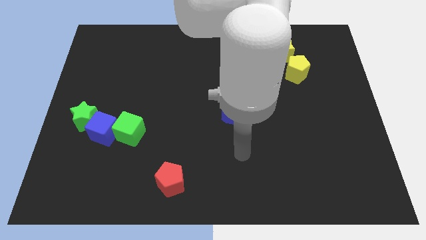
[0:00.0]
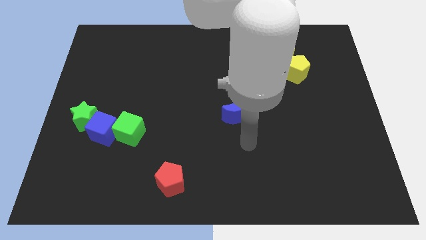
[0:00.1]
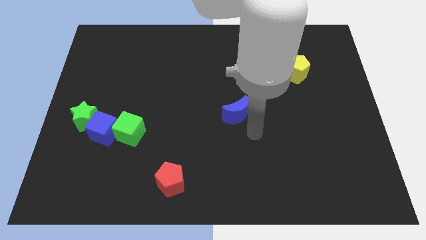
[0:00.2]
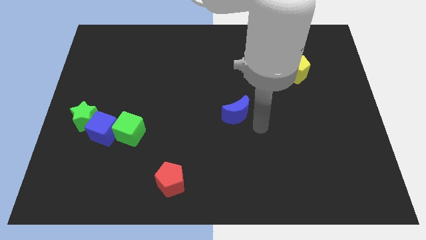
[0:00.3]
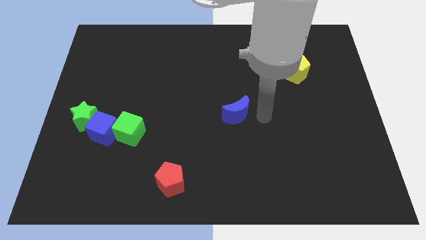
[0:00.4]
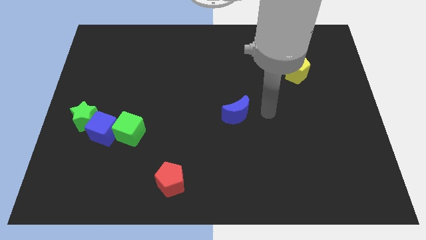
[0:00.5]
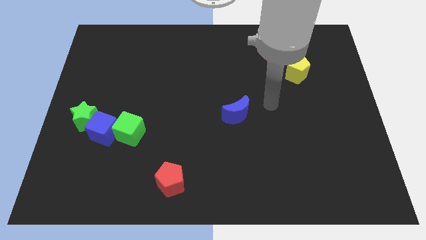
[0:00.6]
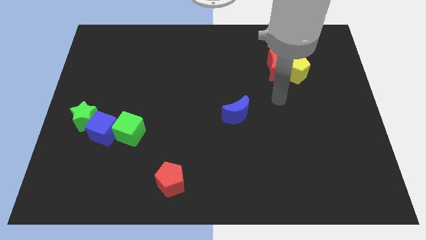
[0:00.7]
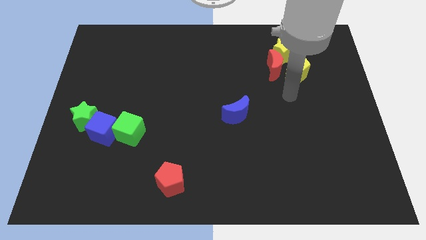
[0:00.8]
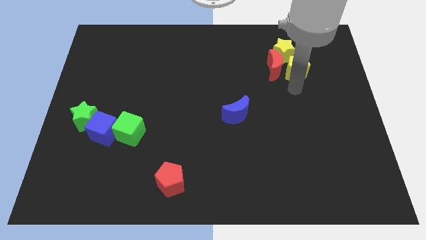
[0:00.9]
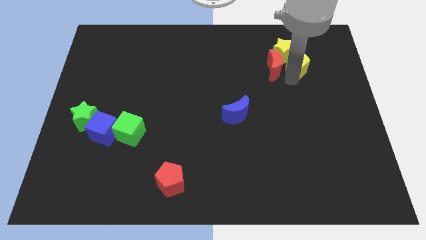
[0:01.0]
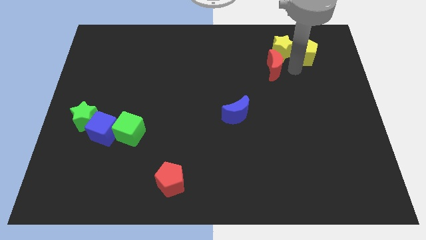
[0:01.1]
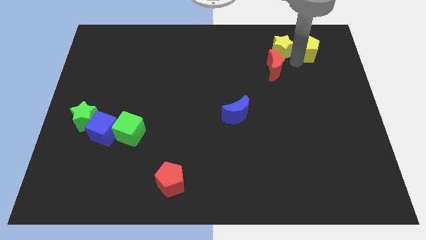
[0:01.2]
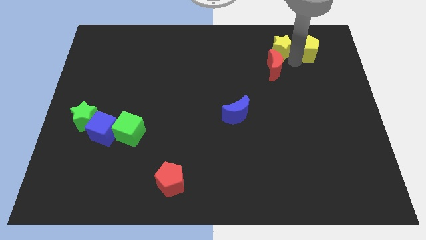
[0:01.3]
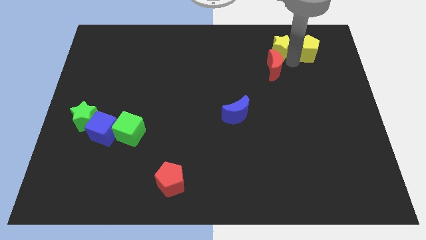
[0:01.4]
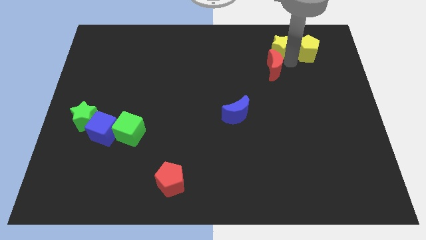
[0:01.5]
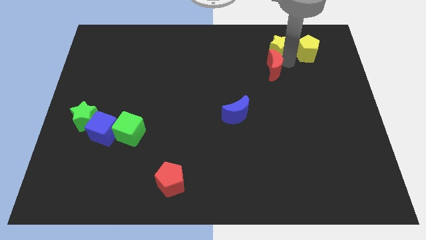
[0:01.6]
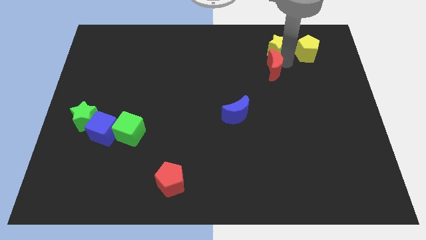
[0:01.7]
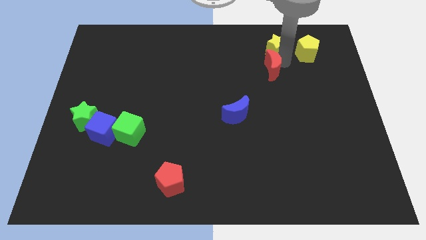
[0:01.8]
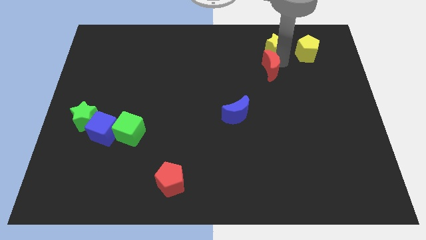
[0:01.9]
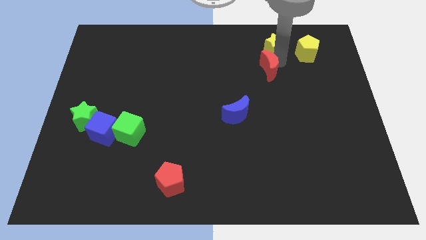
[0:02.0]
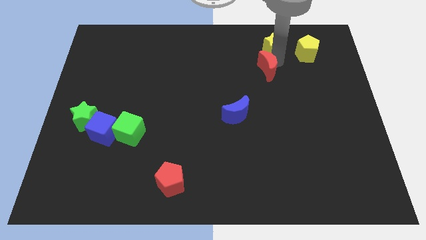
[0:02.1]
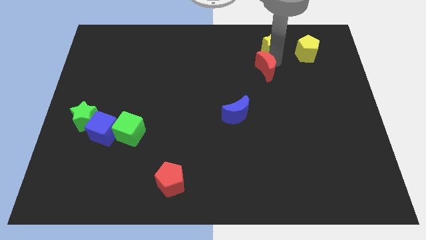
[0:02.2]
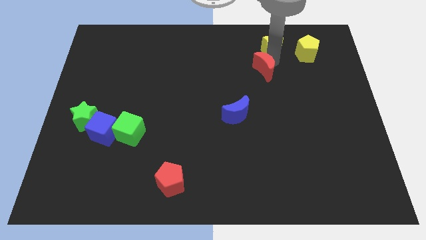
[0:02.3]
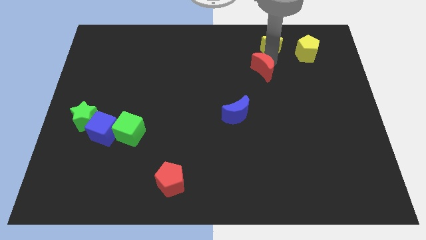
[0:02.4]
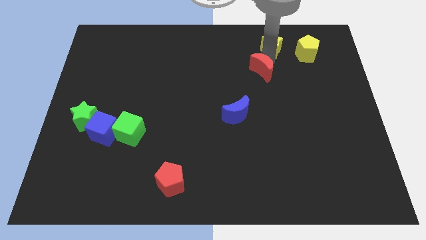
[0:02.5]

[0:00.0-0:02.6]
pull the red moon apart from the yellow pentagon and yellow star

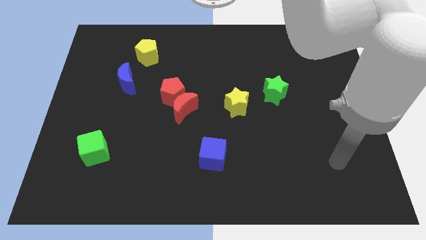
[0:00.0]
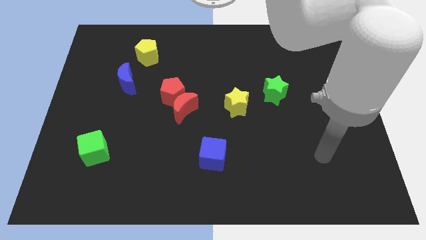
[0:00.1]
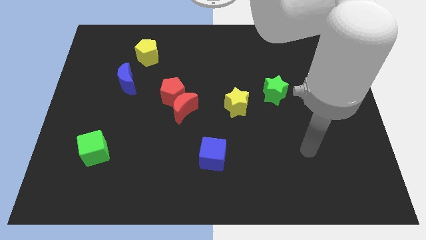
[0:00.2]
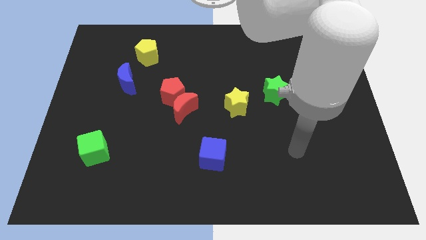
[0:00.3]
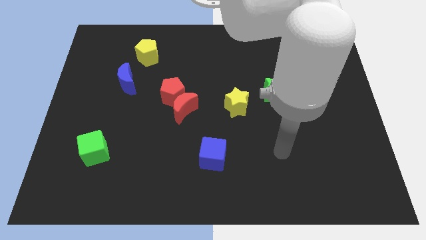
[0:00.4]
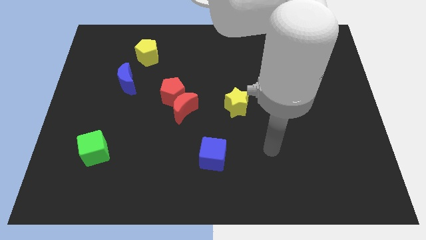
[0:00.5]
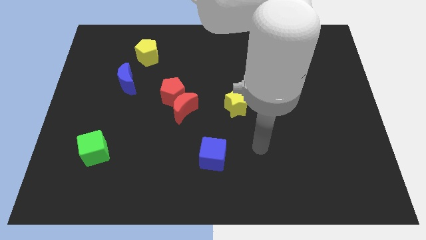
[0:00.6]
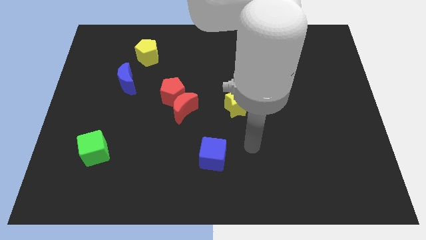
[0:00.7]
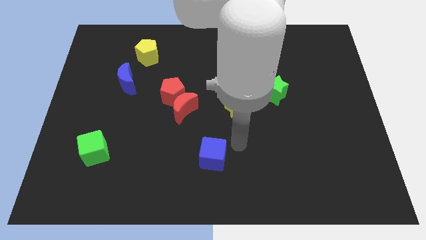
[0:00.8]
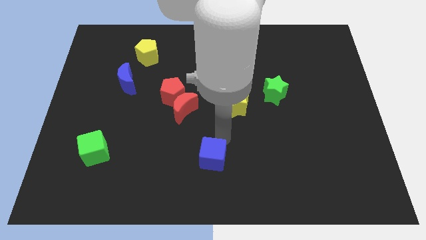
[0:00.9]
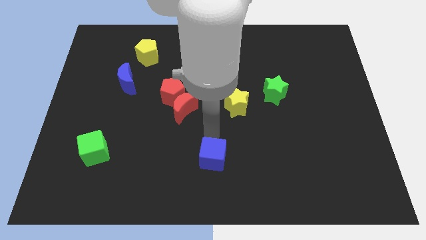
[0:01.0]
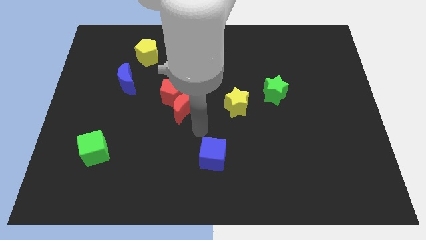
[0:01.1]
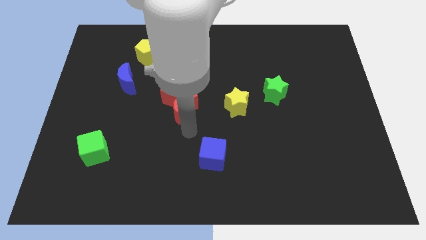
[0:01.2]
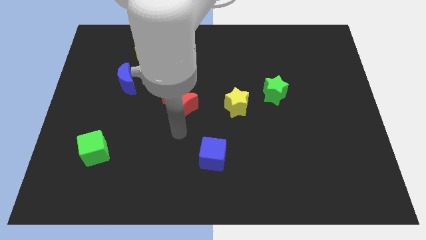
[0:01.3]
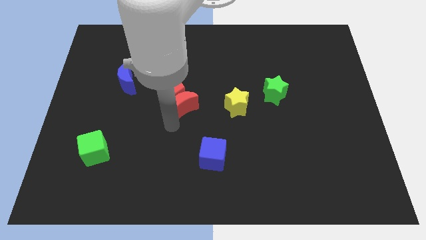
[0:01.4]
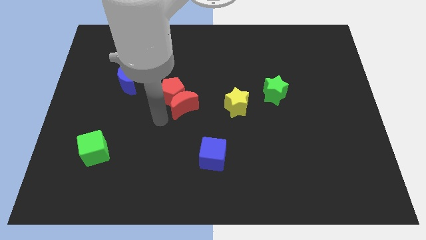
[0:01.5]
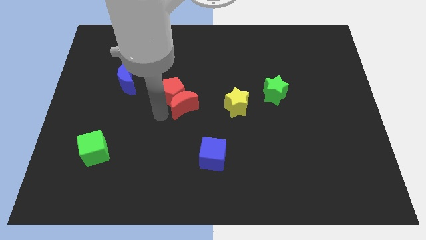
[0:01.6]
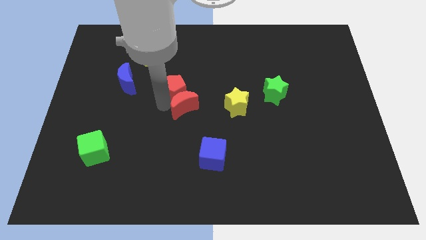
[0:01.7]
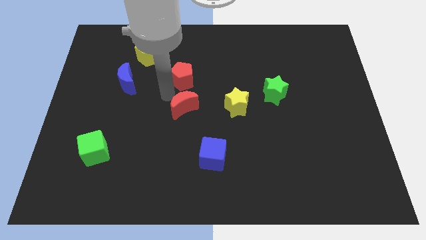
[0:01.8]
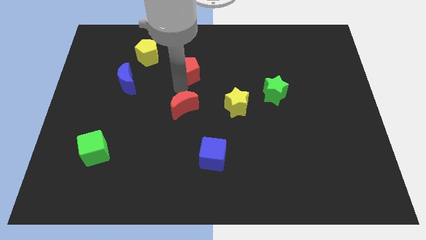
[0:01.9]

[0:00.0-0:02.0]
separate the red moon from the red pentagon

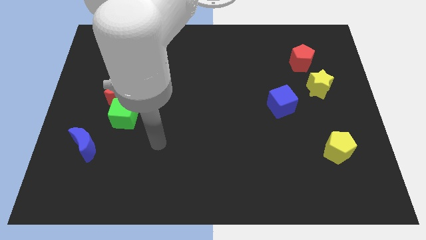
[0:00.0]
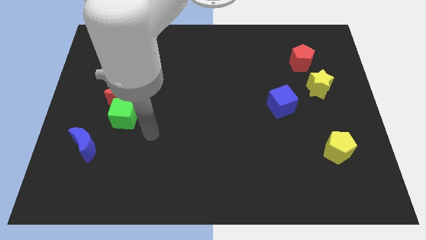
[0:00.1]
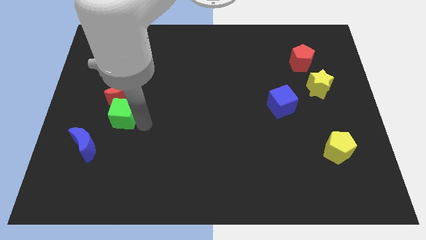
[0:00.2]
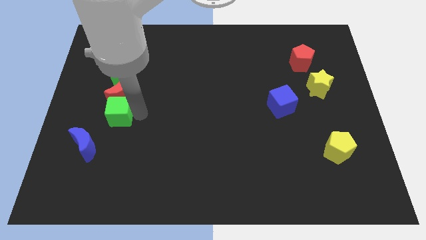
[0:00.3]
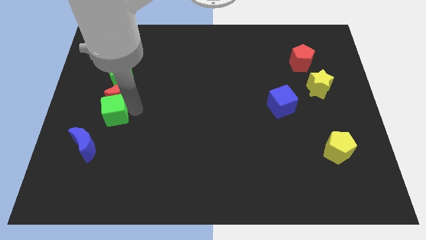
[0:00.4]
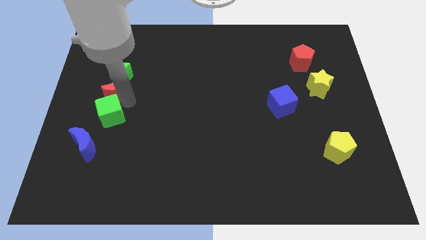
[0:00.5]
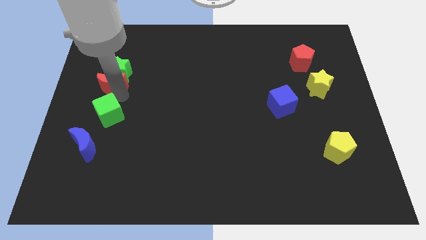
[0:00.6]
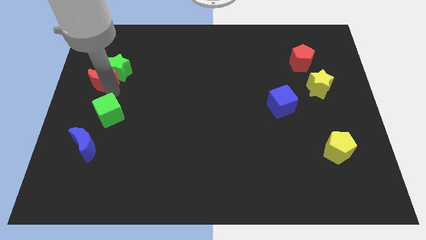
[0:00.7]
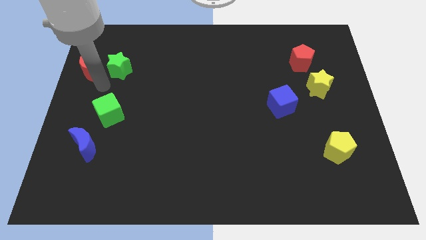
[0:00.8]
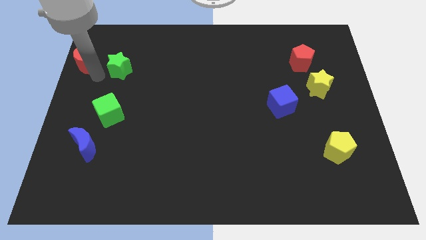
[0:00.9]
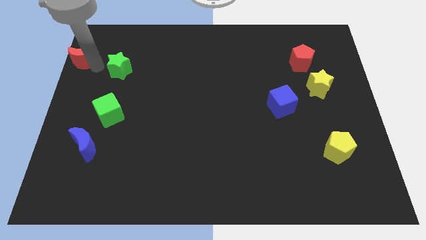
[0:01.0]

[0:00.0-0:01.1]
pull the green star apart from the red moon

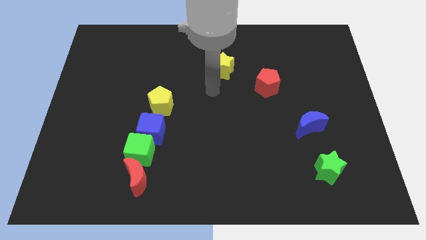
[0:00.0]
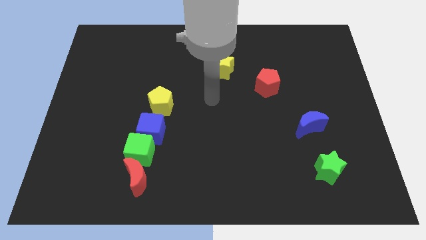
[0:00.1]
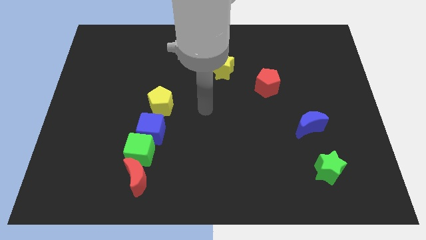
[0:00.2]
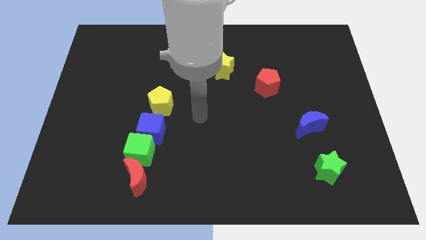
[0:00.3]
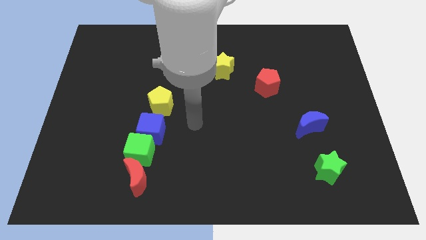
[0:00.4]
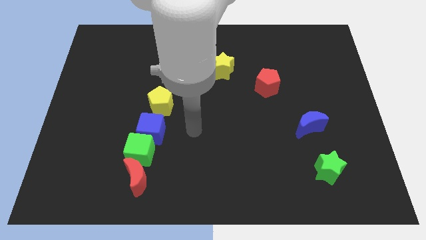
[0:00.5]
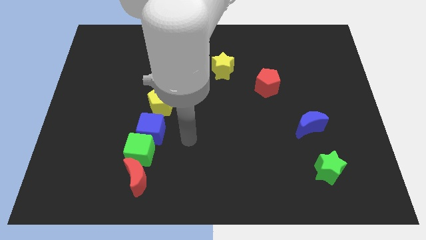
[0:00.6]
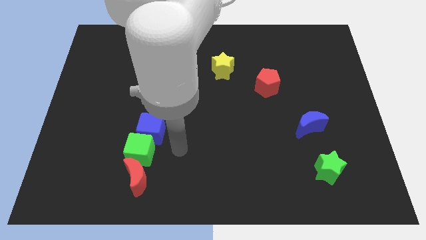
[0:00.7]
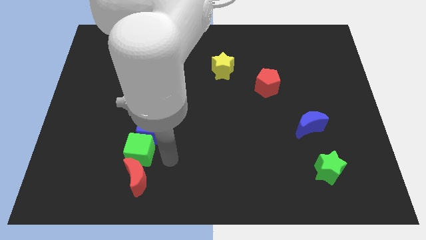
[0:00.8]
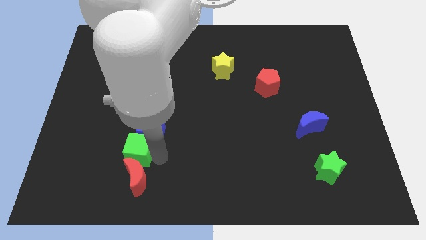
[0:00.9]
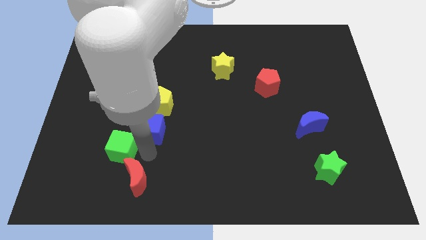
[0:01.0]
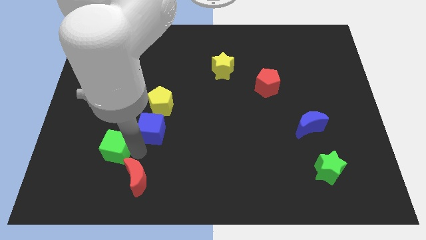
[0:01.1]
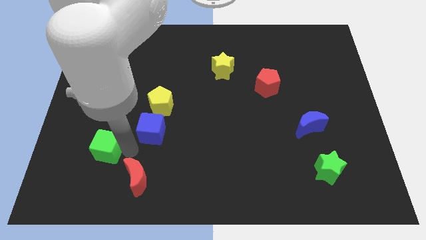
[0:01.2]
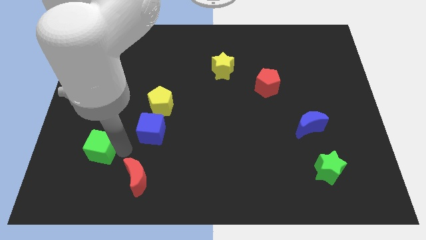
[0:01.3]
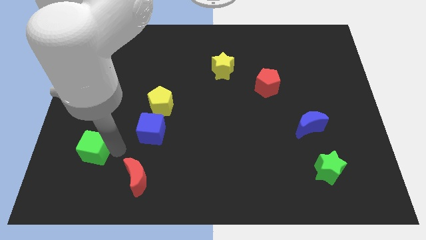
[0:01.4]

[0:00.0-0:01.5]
separate the green cube from the blue cube and red moon

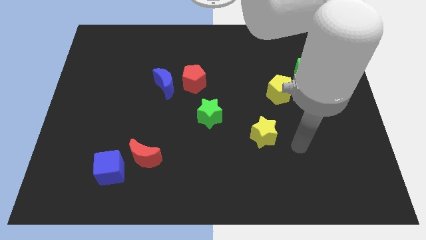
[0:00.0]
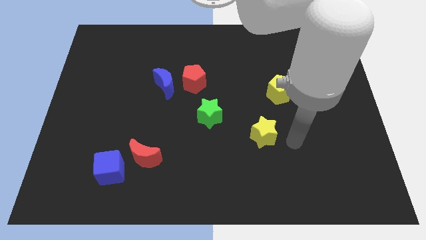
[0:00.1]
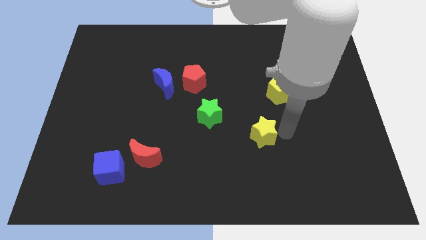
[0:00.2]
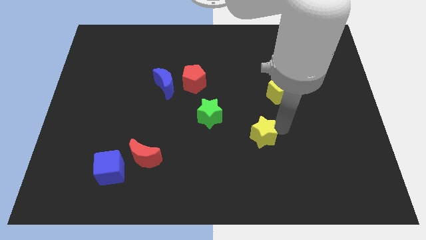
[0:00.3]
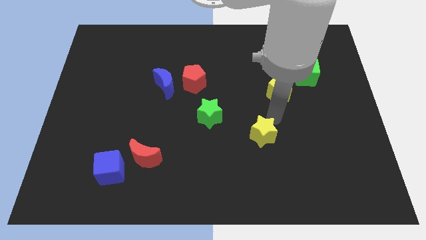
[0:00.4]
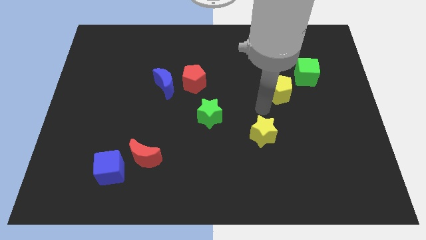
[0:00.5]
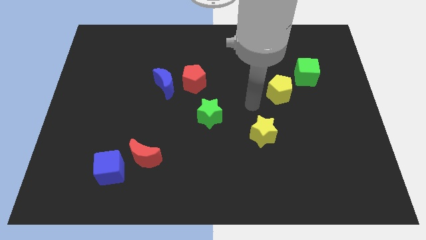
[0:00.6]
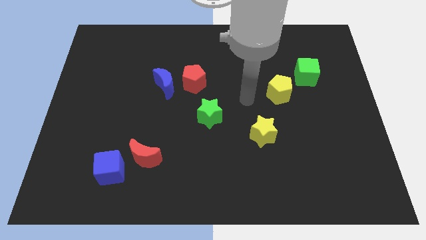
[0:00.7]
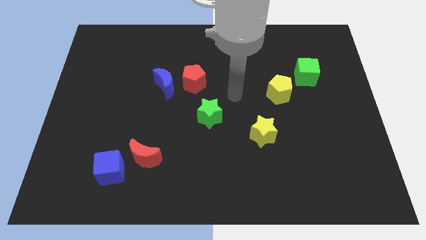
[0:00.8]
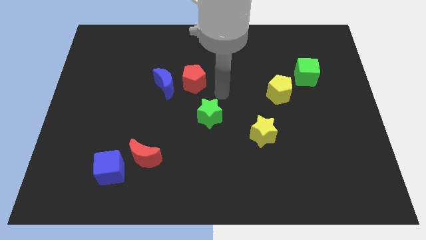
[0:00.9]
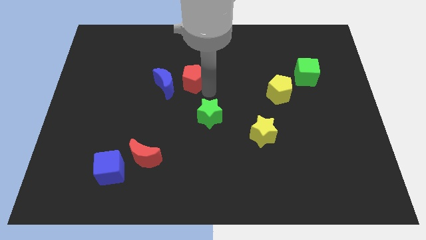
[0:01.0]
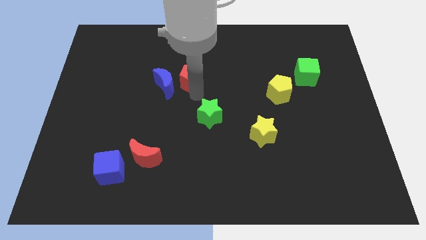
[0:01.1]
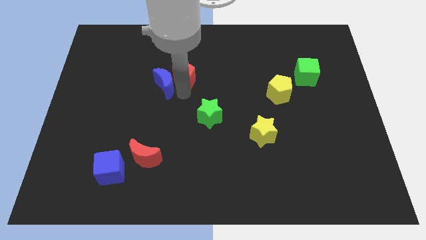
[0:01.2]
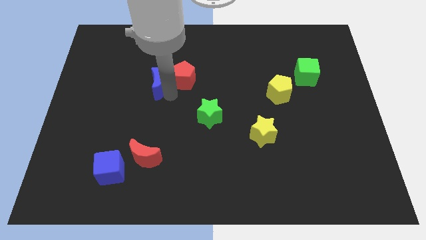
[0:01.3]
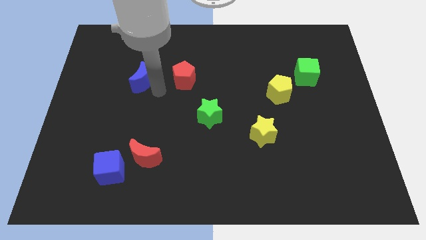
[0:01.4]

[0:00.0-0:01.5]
pull the red pentagon apart from the blue moon

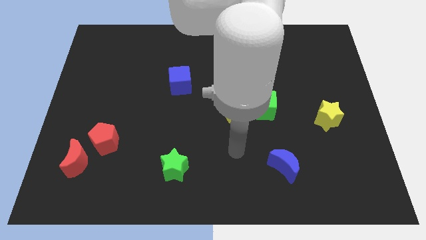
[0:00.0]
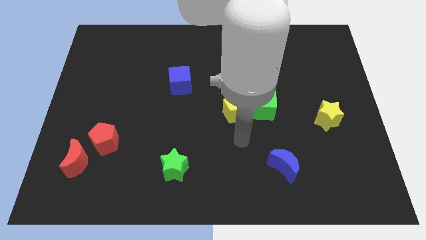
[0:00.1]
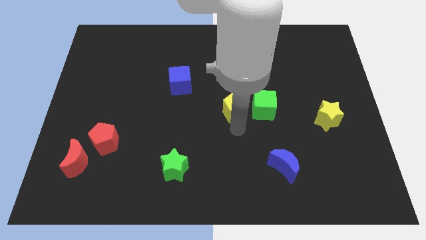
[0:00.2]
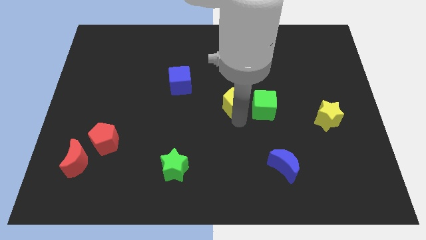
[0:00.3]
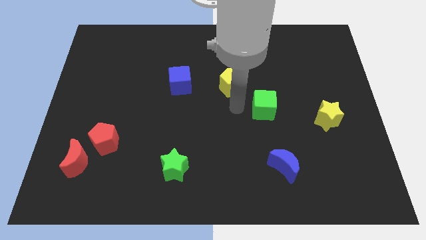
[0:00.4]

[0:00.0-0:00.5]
pull the green cube apart from the yellow pentagon

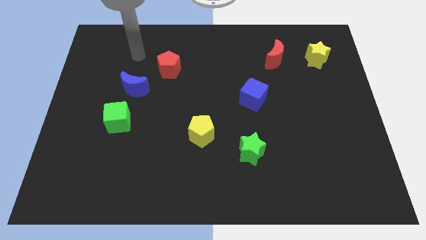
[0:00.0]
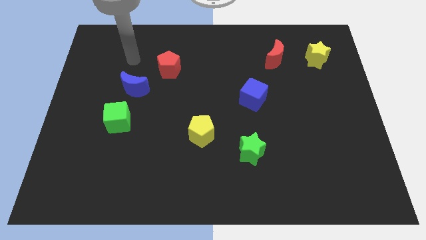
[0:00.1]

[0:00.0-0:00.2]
move the blue moon away from the green cube
